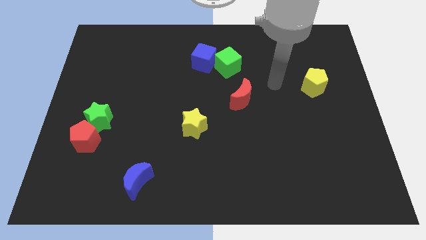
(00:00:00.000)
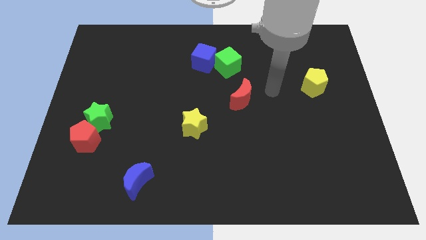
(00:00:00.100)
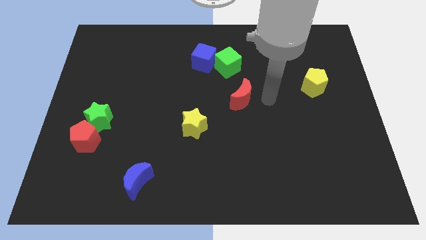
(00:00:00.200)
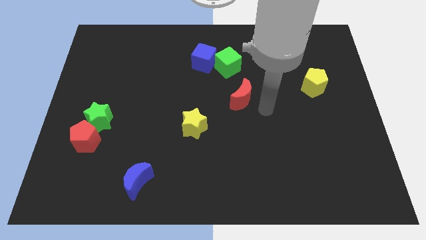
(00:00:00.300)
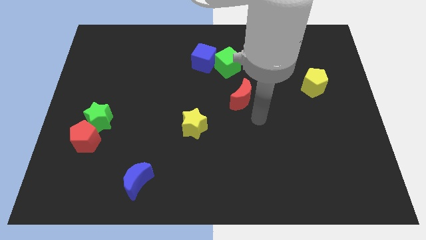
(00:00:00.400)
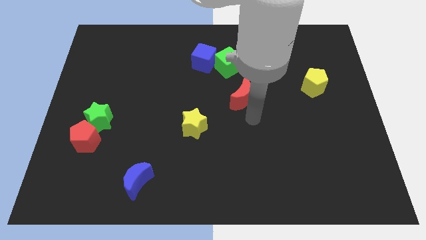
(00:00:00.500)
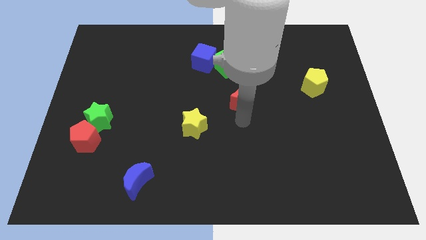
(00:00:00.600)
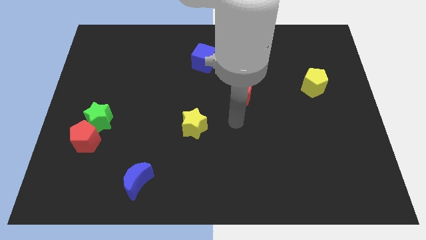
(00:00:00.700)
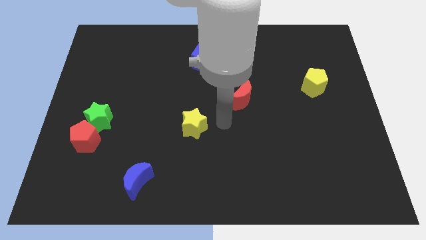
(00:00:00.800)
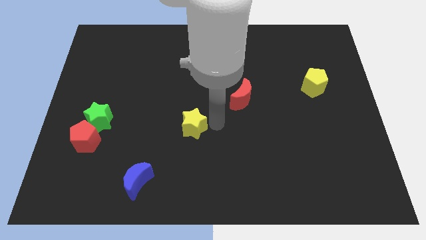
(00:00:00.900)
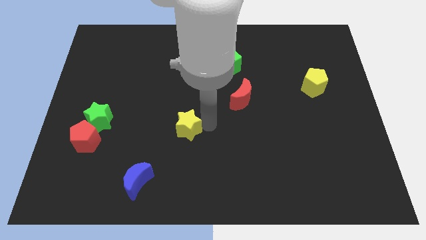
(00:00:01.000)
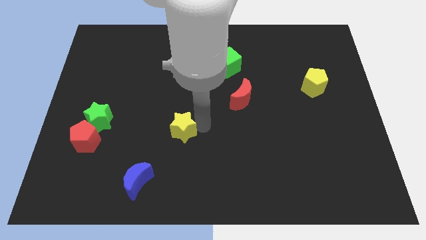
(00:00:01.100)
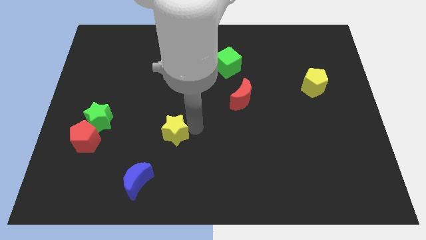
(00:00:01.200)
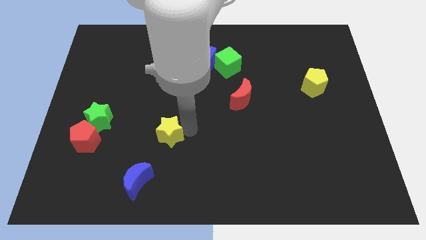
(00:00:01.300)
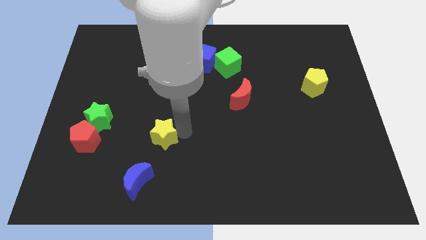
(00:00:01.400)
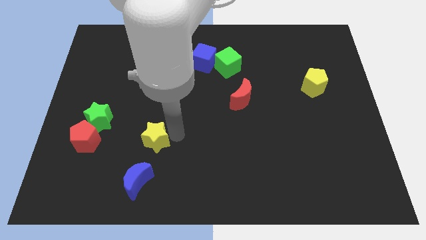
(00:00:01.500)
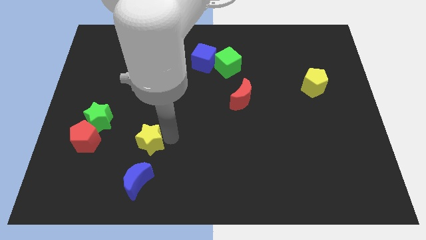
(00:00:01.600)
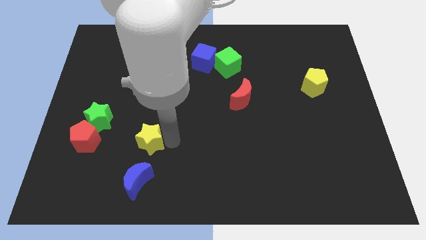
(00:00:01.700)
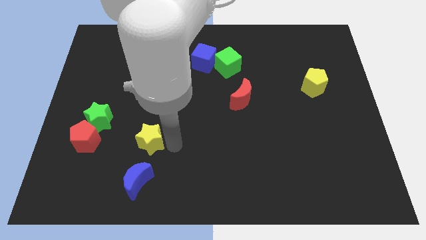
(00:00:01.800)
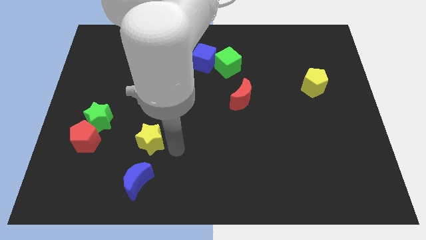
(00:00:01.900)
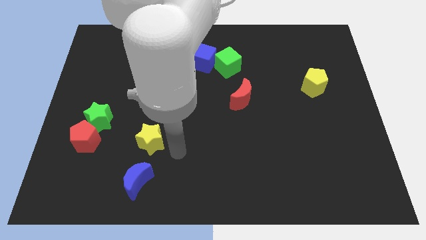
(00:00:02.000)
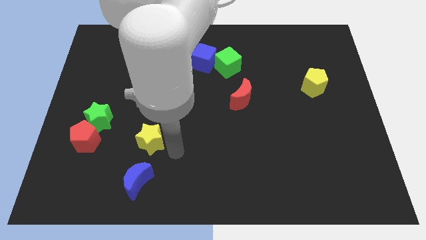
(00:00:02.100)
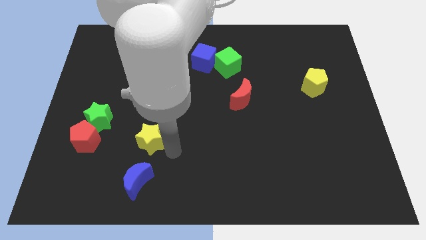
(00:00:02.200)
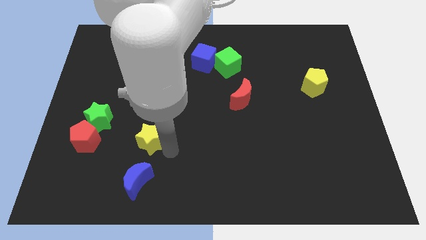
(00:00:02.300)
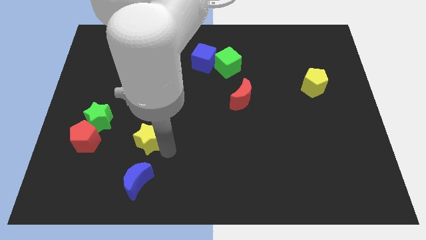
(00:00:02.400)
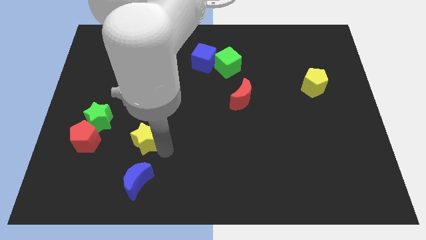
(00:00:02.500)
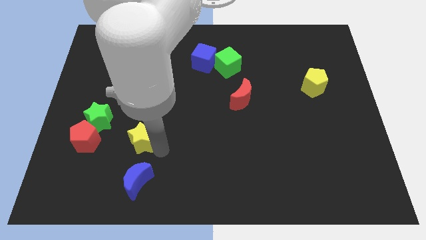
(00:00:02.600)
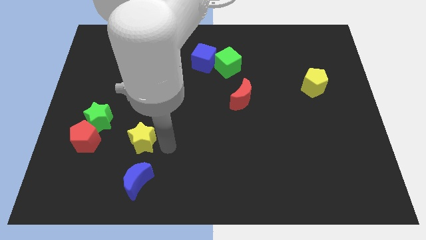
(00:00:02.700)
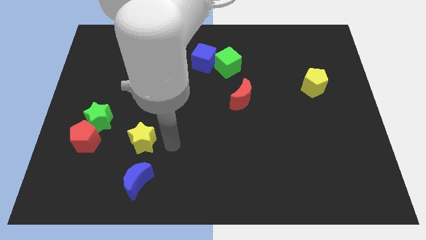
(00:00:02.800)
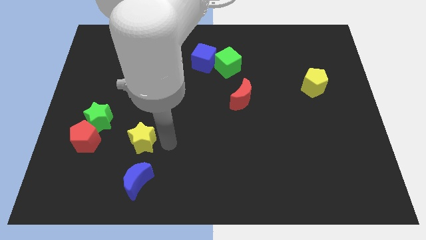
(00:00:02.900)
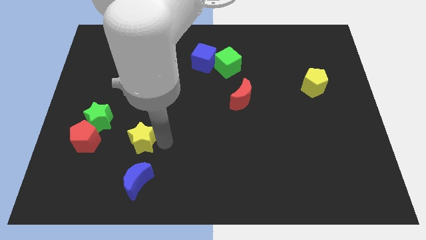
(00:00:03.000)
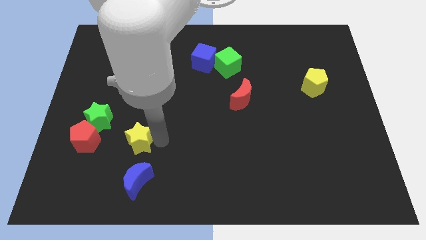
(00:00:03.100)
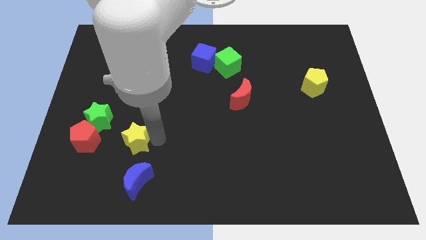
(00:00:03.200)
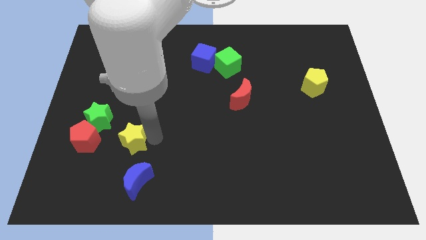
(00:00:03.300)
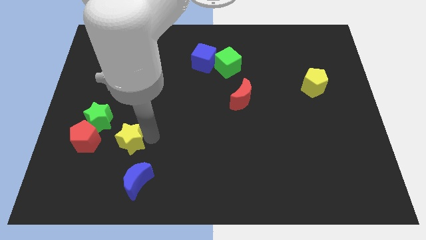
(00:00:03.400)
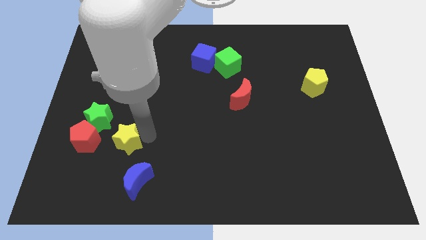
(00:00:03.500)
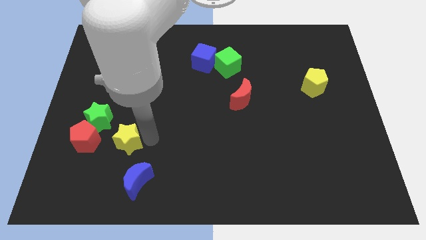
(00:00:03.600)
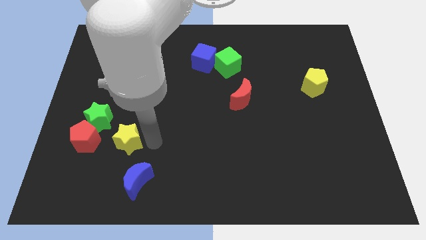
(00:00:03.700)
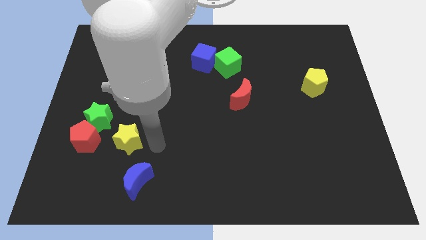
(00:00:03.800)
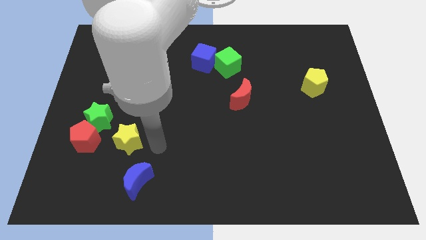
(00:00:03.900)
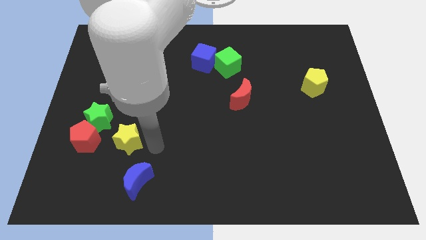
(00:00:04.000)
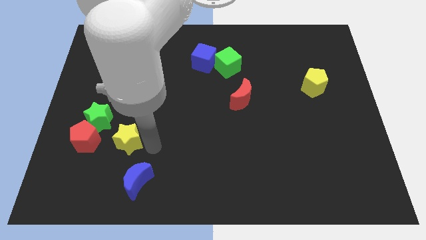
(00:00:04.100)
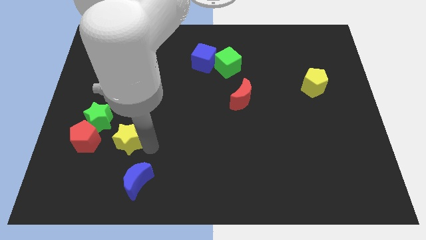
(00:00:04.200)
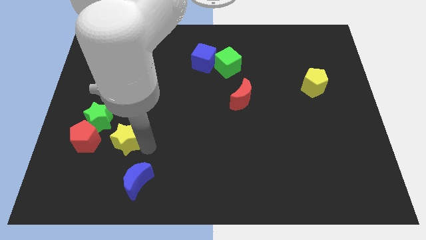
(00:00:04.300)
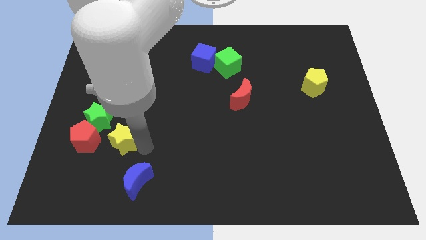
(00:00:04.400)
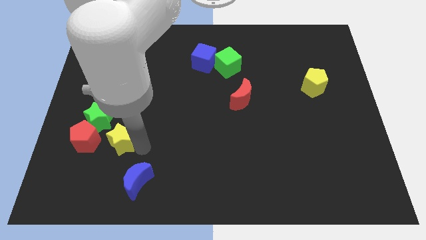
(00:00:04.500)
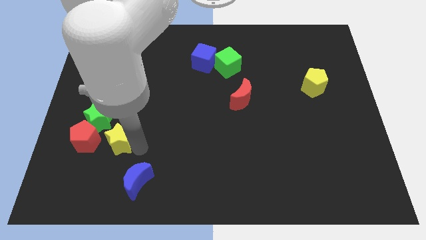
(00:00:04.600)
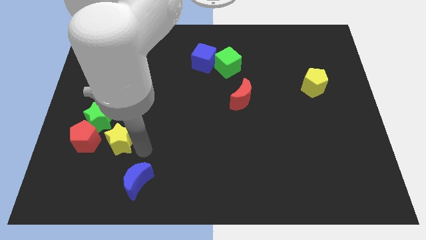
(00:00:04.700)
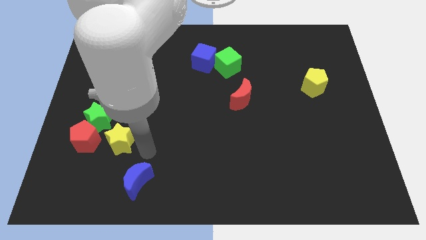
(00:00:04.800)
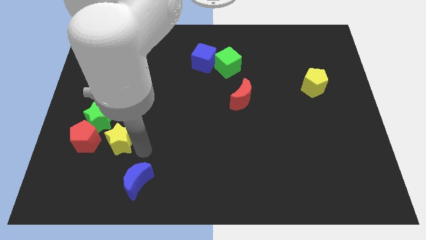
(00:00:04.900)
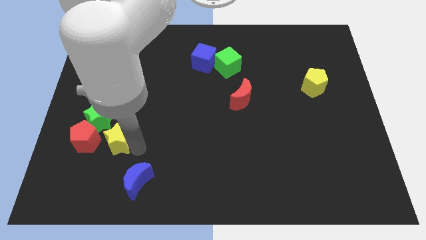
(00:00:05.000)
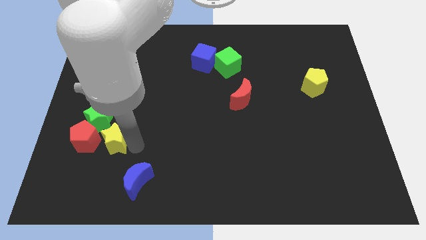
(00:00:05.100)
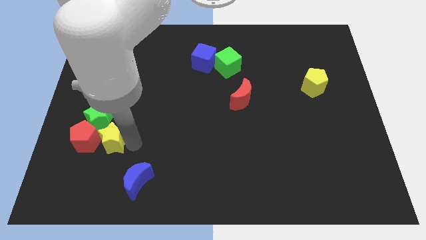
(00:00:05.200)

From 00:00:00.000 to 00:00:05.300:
move the yellow star to the red pentagon

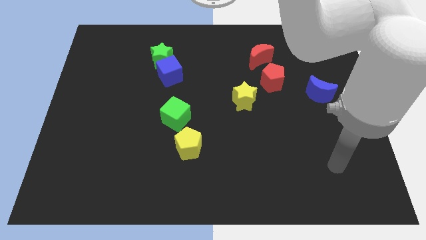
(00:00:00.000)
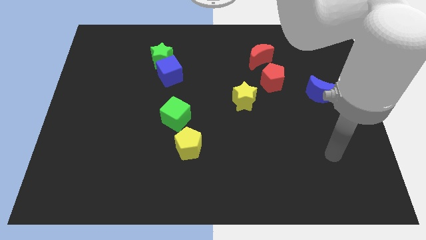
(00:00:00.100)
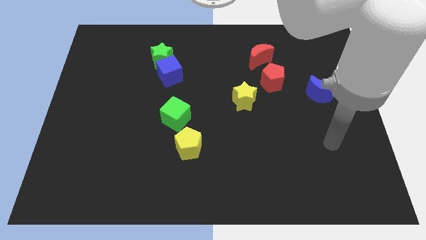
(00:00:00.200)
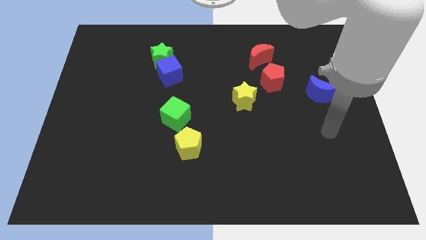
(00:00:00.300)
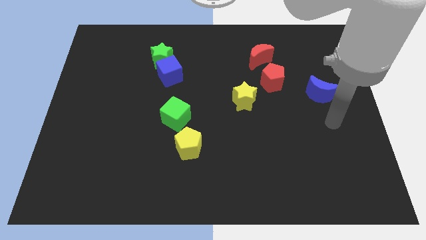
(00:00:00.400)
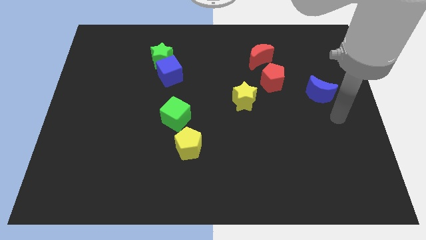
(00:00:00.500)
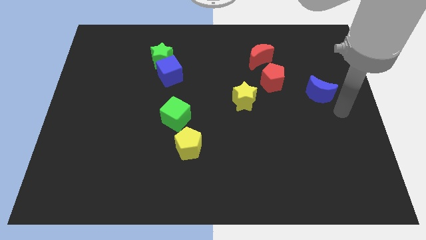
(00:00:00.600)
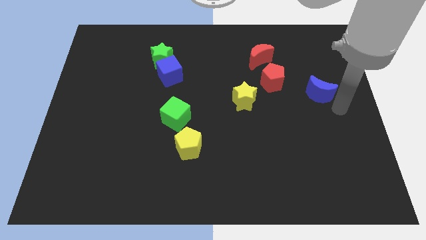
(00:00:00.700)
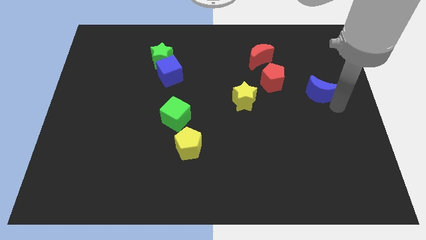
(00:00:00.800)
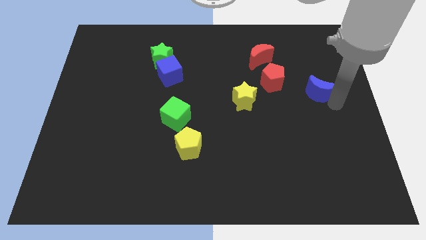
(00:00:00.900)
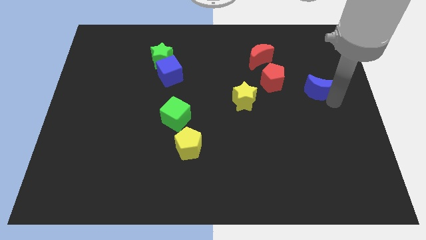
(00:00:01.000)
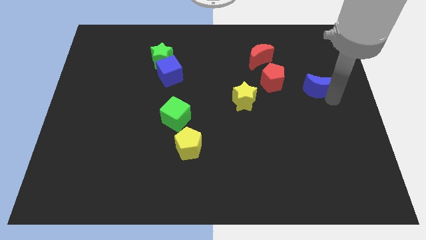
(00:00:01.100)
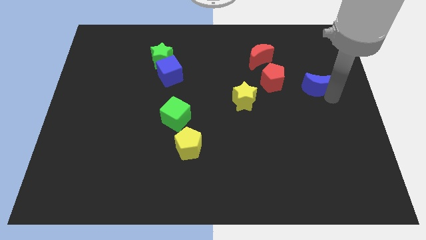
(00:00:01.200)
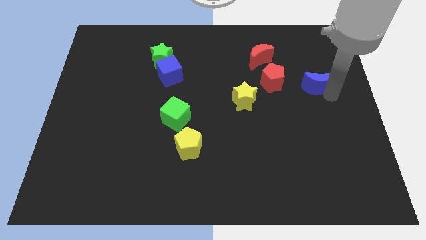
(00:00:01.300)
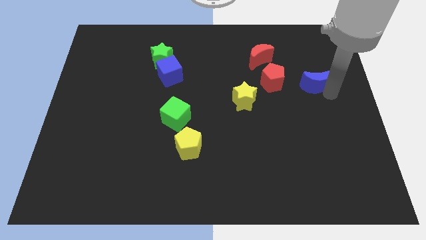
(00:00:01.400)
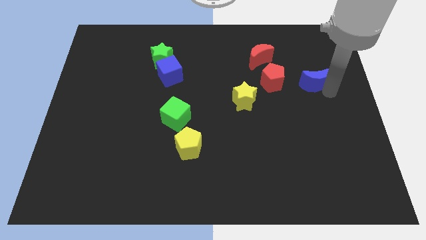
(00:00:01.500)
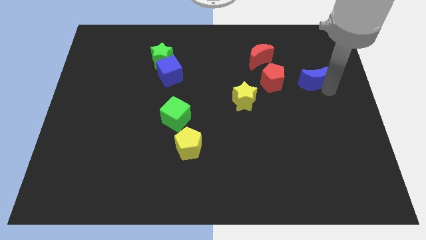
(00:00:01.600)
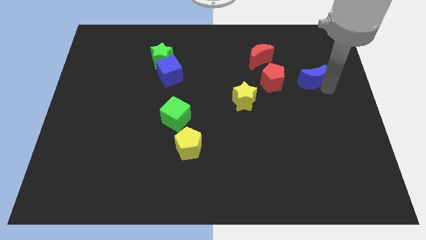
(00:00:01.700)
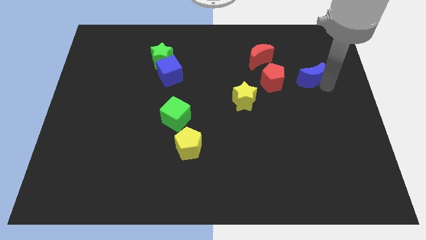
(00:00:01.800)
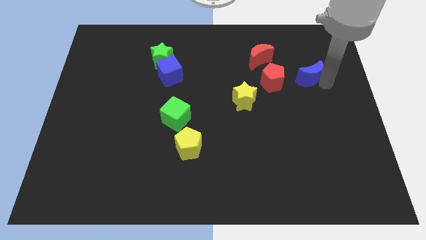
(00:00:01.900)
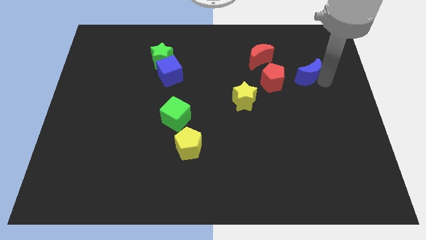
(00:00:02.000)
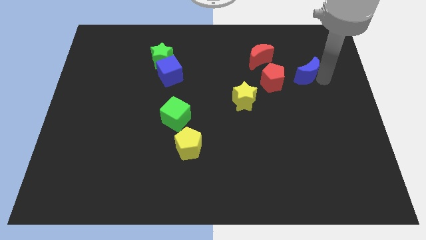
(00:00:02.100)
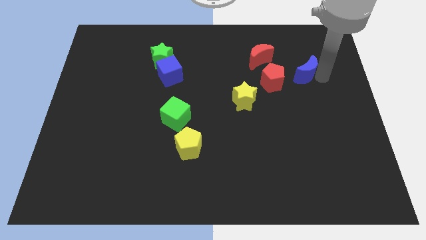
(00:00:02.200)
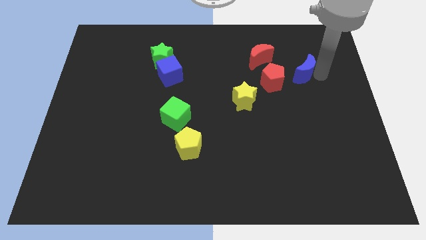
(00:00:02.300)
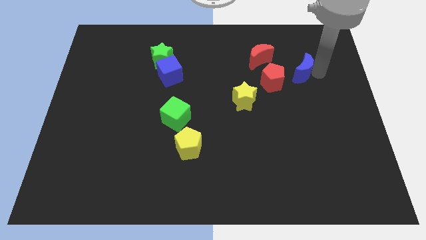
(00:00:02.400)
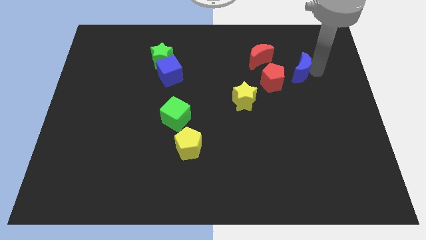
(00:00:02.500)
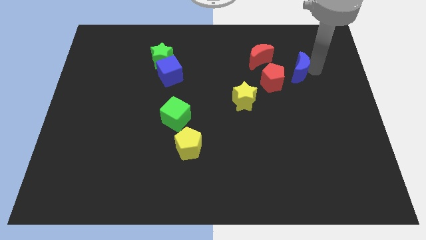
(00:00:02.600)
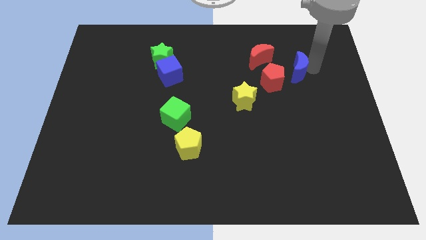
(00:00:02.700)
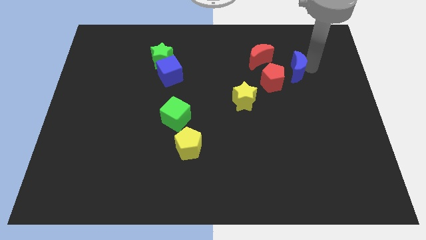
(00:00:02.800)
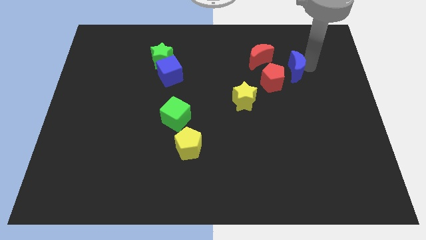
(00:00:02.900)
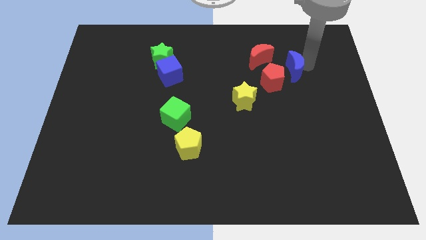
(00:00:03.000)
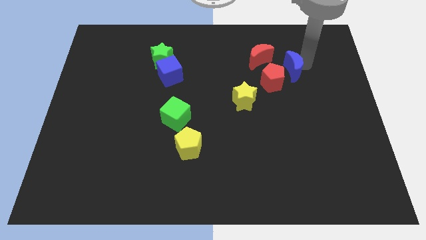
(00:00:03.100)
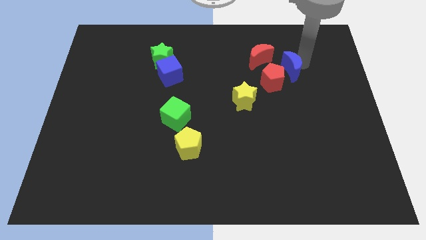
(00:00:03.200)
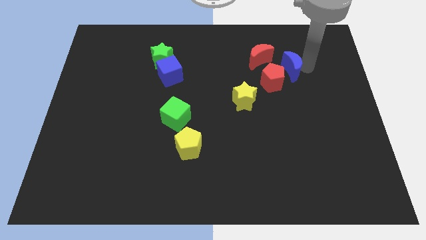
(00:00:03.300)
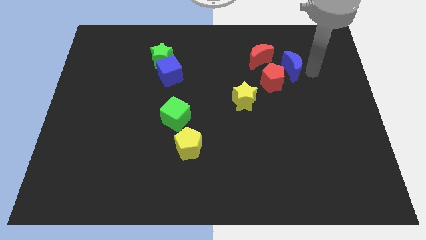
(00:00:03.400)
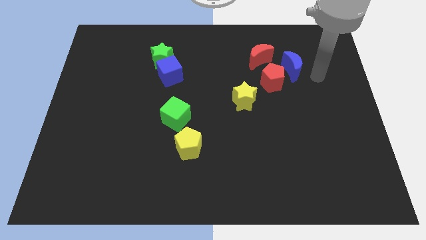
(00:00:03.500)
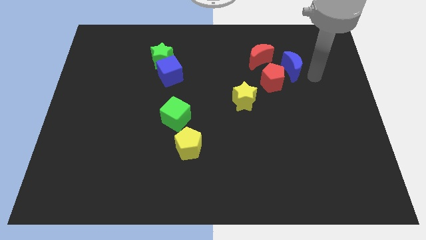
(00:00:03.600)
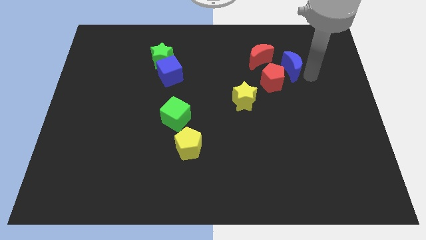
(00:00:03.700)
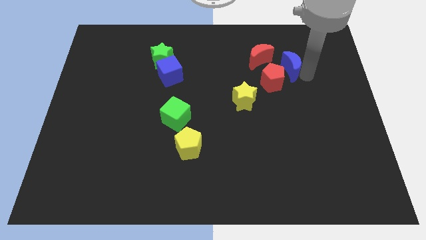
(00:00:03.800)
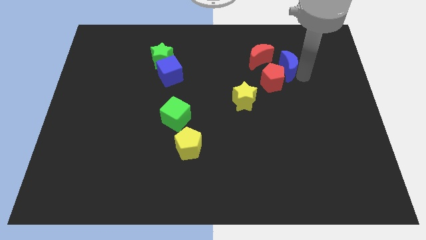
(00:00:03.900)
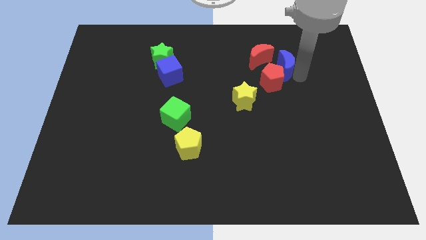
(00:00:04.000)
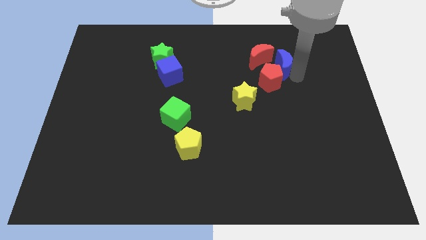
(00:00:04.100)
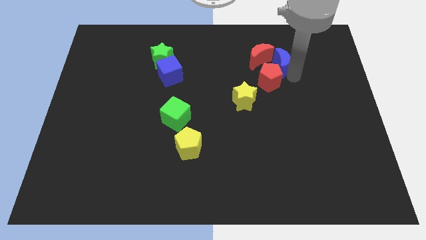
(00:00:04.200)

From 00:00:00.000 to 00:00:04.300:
move the blue moon to the red moon
